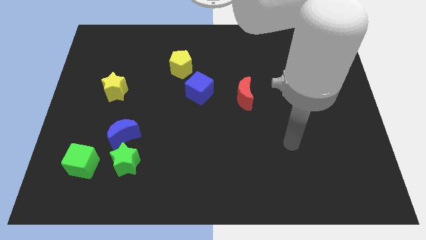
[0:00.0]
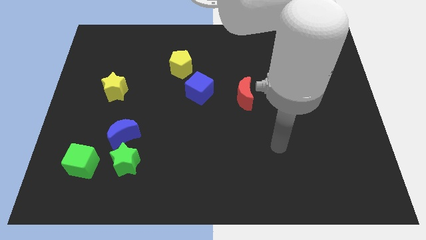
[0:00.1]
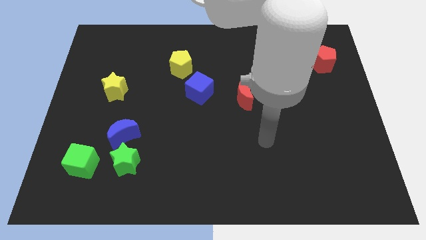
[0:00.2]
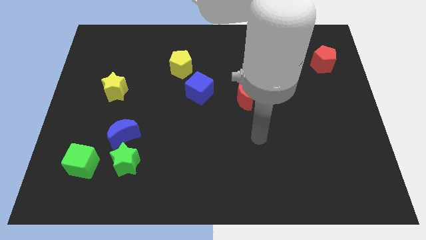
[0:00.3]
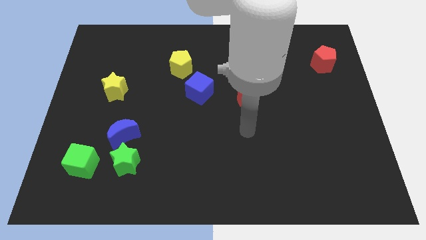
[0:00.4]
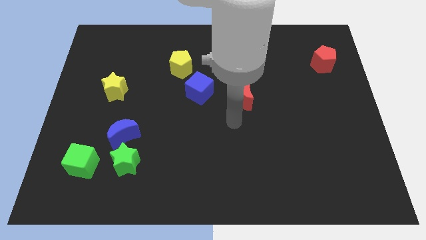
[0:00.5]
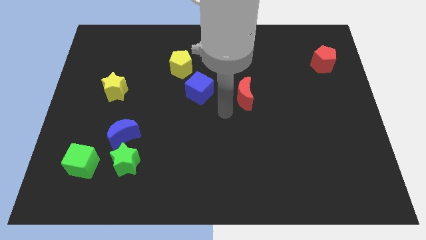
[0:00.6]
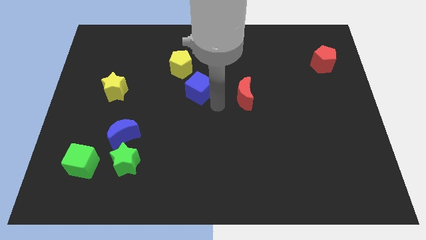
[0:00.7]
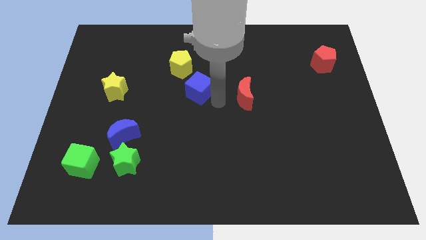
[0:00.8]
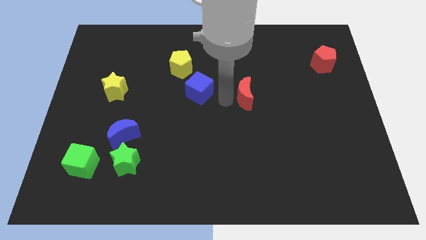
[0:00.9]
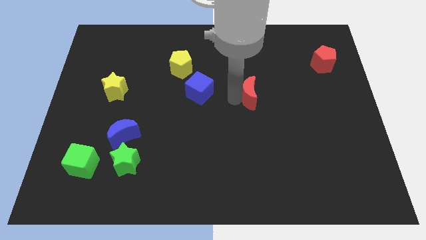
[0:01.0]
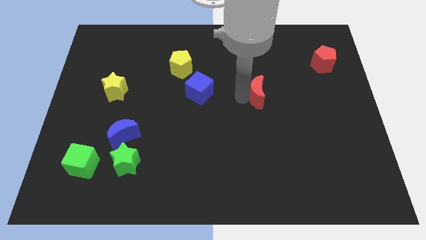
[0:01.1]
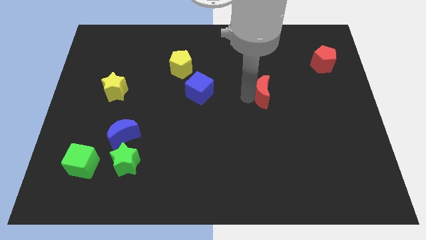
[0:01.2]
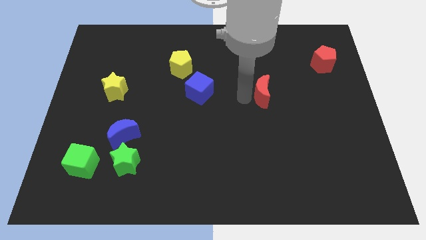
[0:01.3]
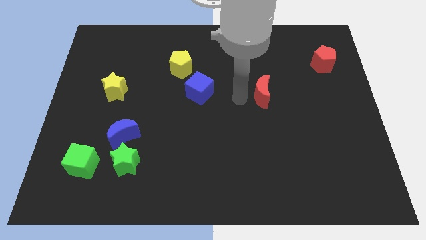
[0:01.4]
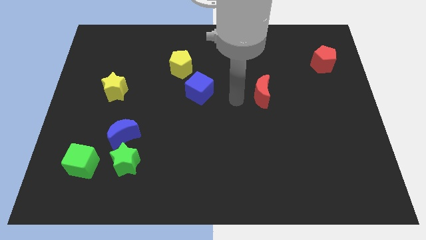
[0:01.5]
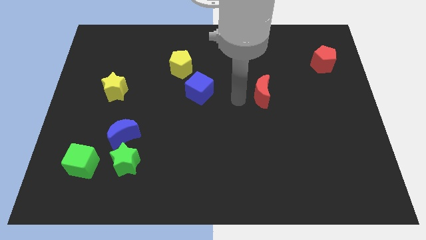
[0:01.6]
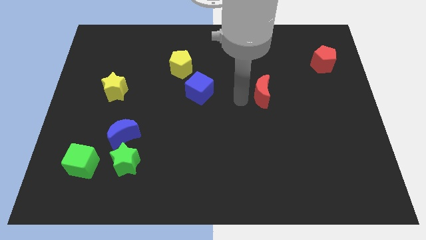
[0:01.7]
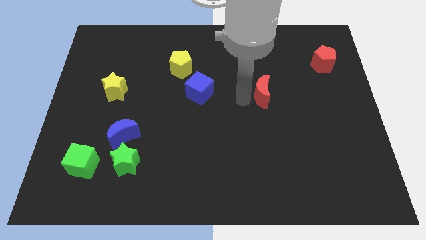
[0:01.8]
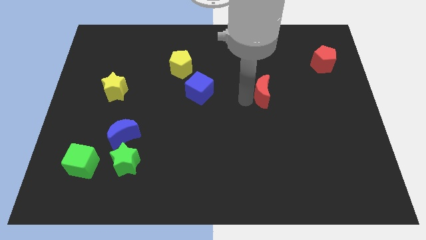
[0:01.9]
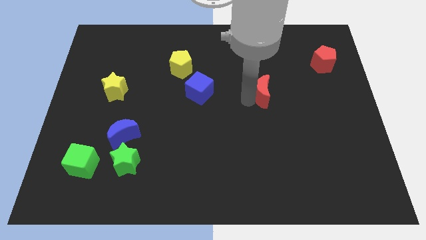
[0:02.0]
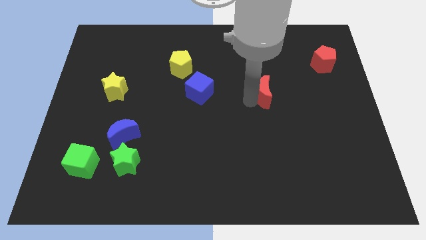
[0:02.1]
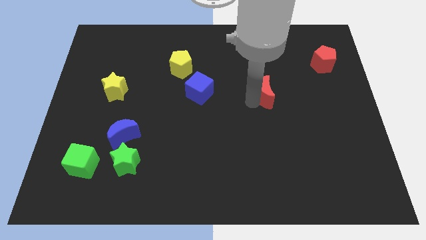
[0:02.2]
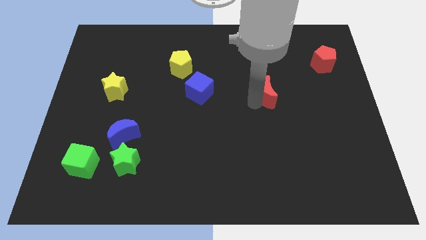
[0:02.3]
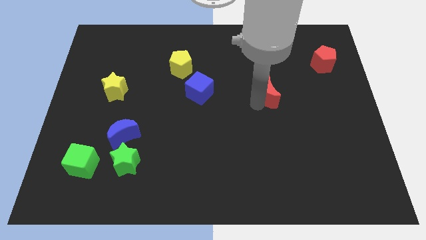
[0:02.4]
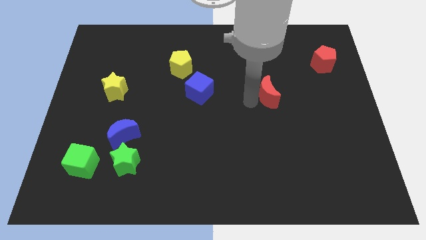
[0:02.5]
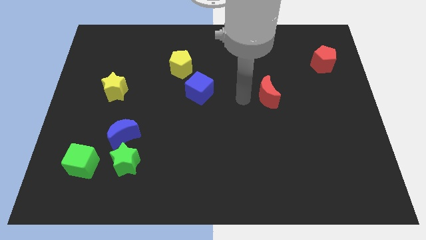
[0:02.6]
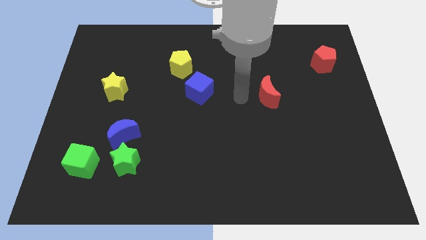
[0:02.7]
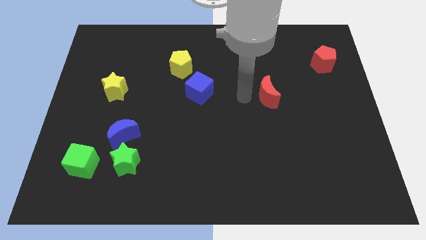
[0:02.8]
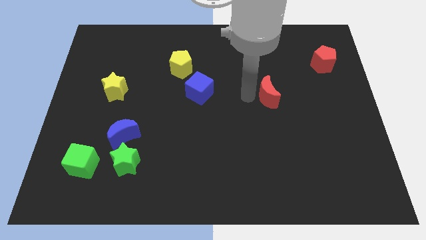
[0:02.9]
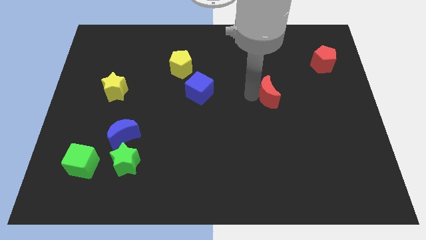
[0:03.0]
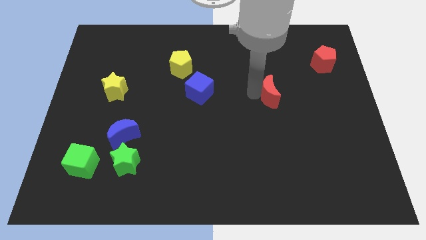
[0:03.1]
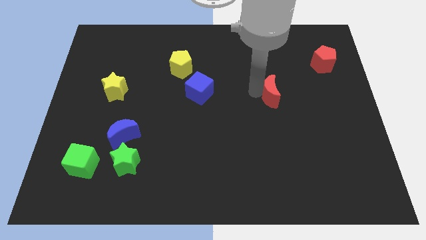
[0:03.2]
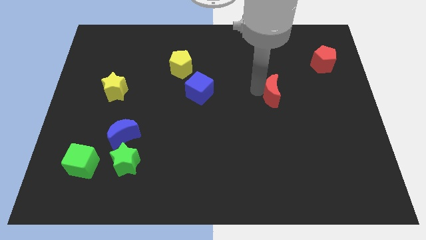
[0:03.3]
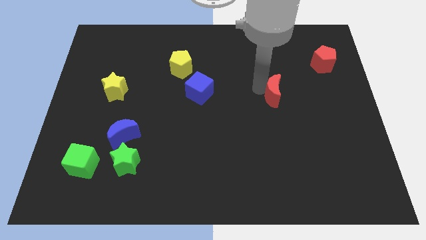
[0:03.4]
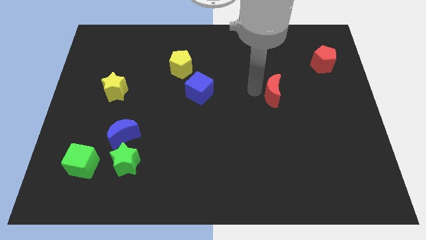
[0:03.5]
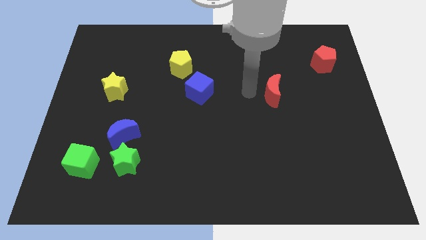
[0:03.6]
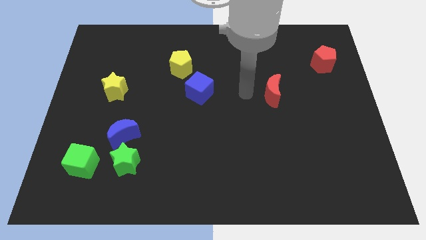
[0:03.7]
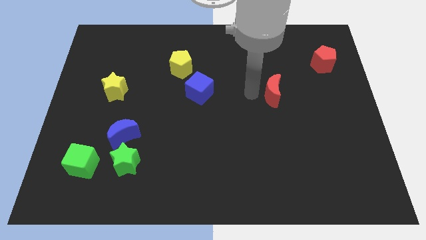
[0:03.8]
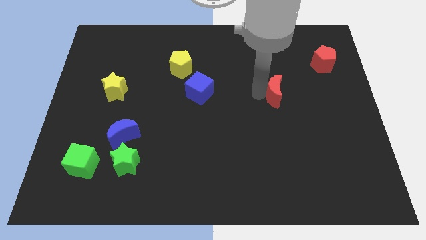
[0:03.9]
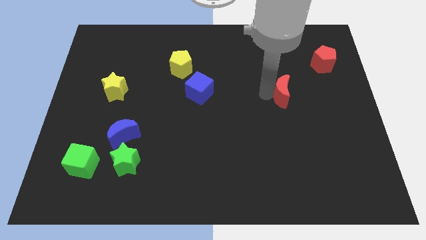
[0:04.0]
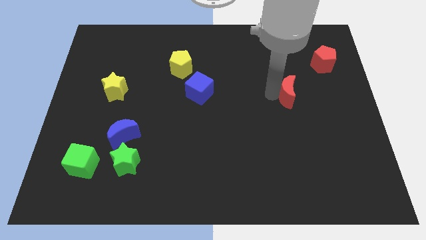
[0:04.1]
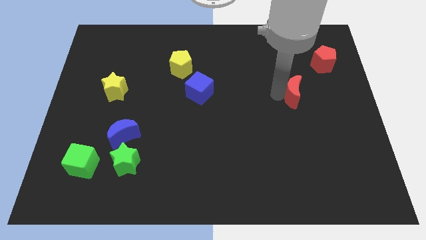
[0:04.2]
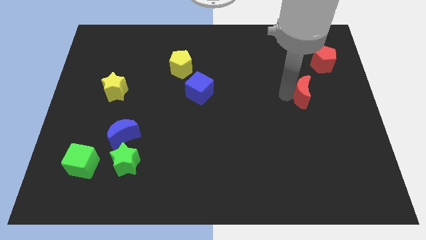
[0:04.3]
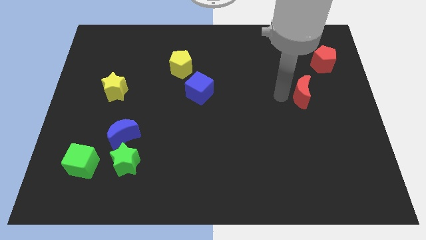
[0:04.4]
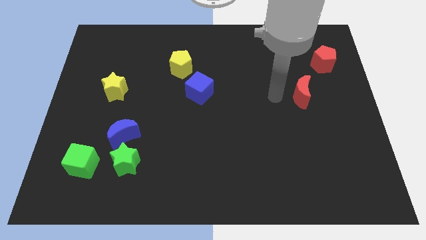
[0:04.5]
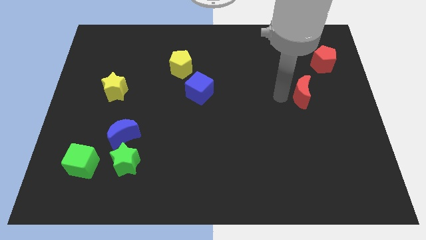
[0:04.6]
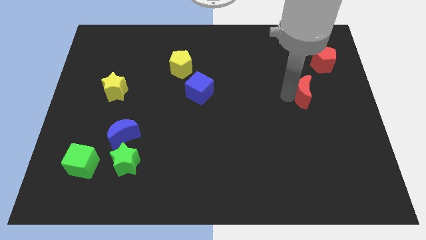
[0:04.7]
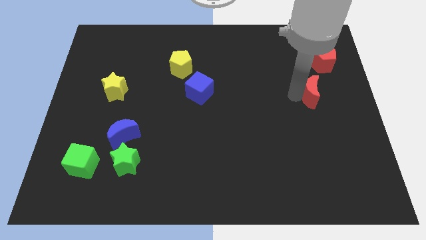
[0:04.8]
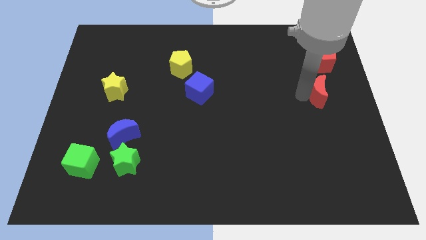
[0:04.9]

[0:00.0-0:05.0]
move the red moon below the red pentagon

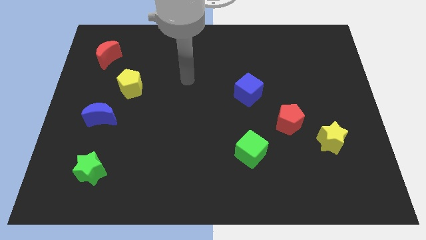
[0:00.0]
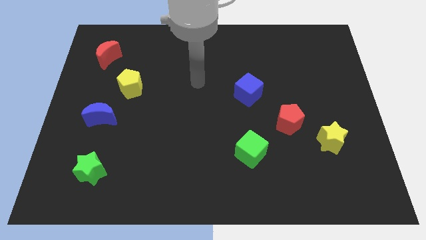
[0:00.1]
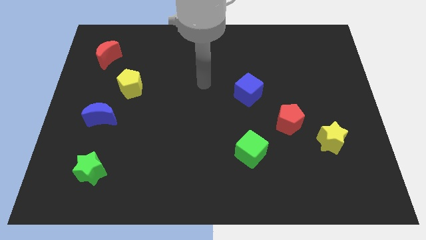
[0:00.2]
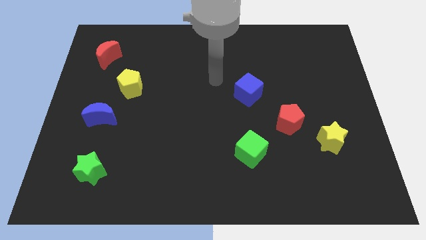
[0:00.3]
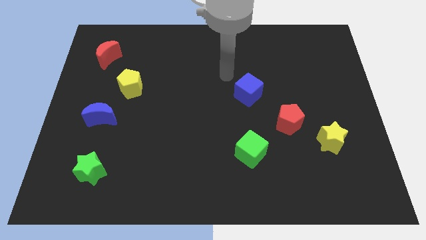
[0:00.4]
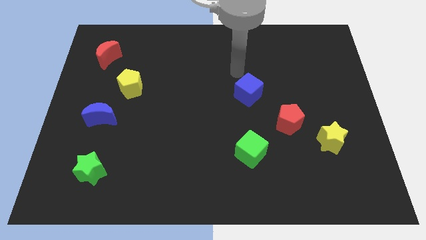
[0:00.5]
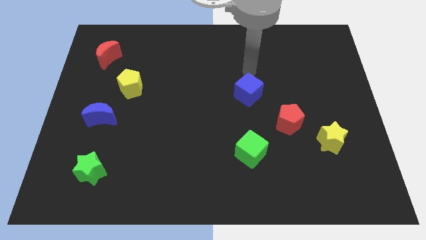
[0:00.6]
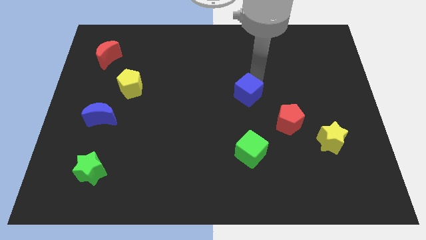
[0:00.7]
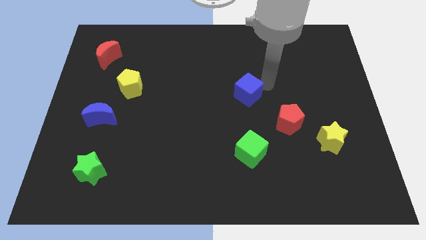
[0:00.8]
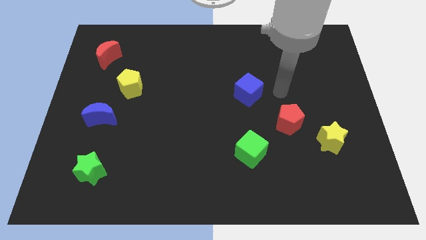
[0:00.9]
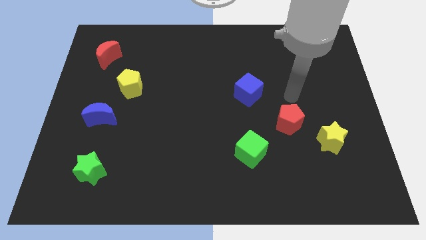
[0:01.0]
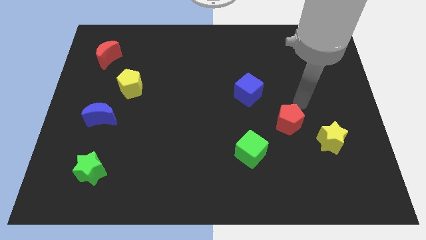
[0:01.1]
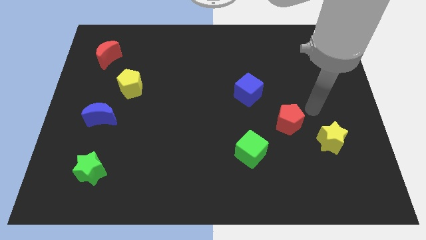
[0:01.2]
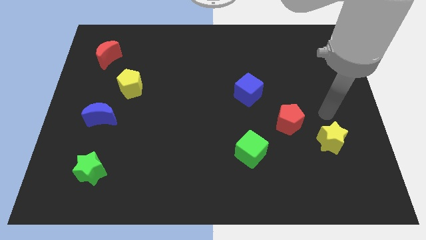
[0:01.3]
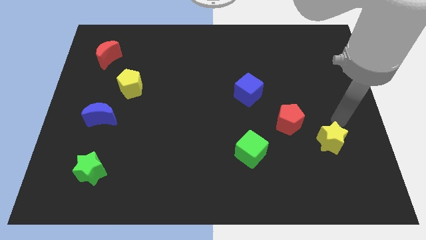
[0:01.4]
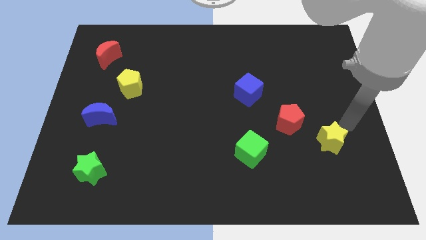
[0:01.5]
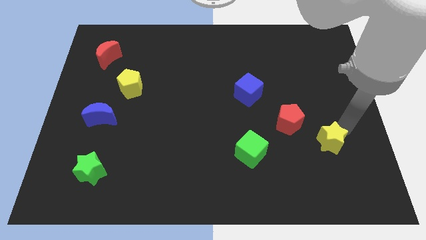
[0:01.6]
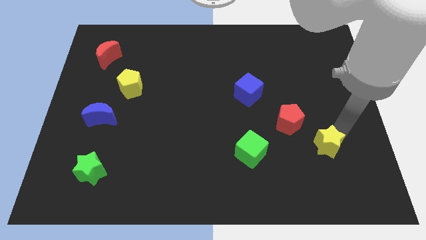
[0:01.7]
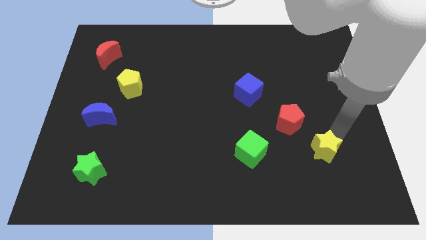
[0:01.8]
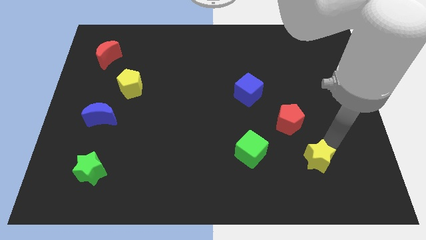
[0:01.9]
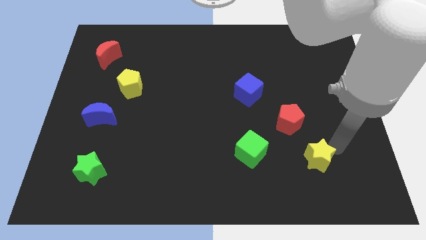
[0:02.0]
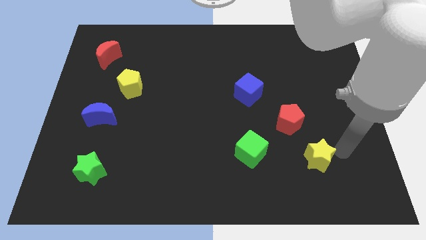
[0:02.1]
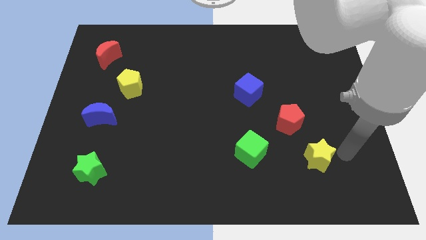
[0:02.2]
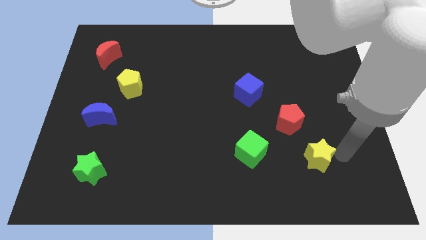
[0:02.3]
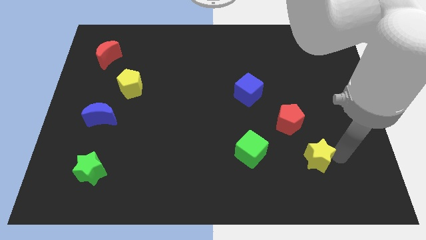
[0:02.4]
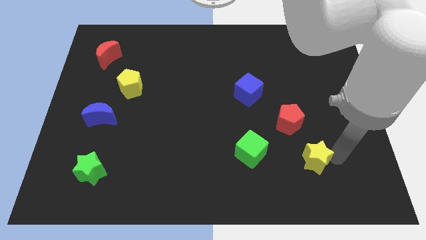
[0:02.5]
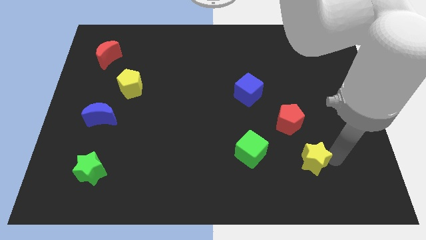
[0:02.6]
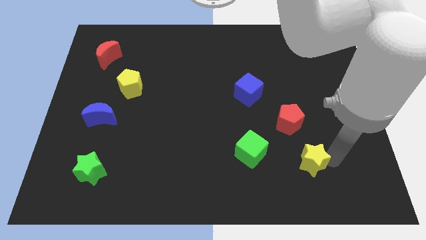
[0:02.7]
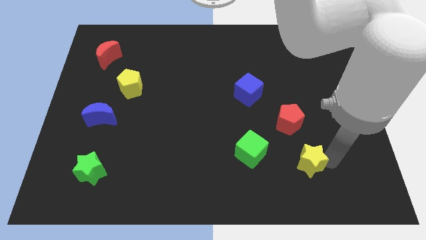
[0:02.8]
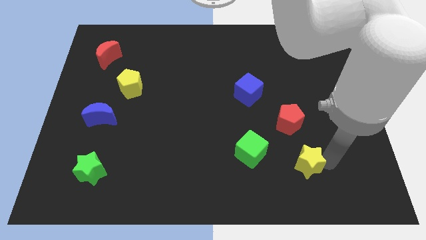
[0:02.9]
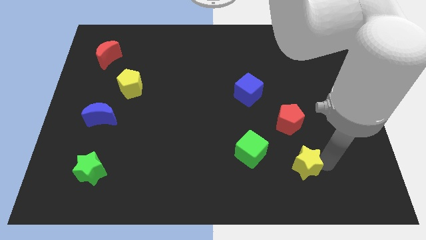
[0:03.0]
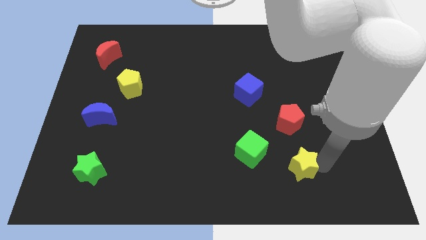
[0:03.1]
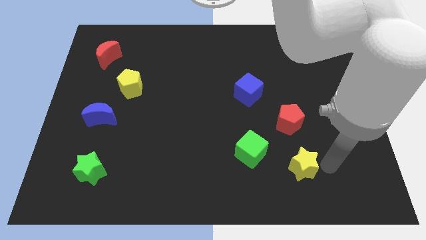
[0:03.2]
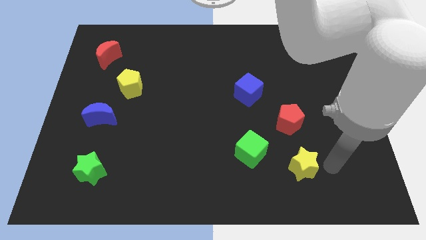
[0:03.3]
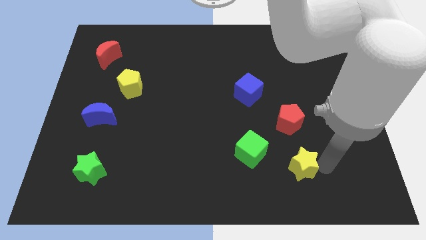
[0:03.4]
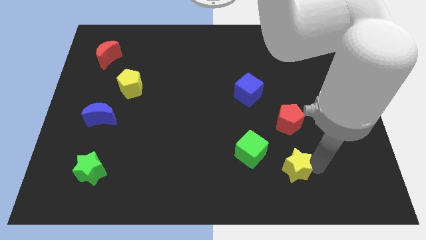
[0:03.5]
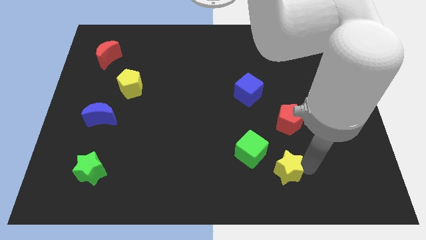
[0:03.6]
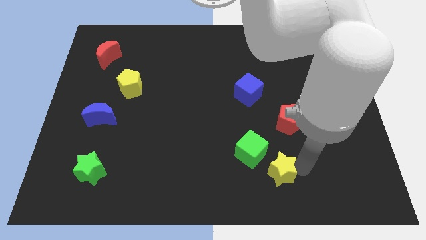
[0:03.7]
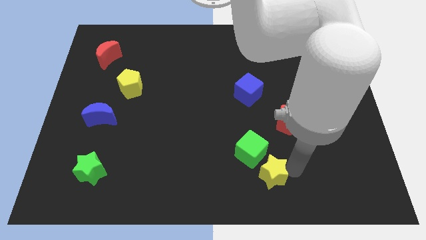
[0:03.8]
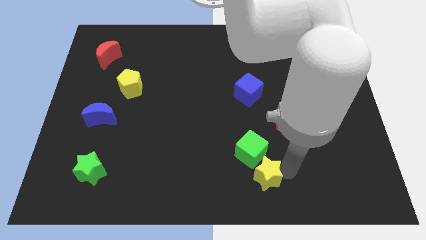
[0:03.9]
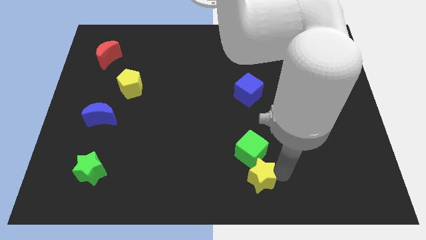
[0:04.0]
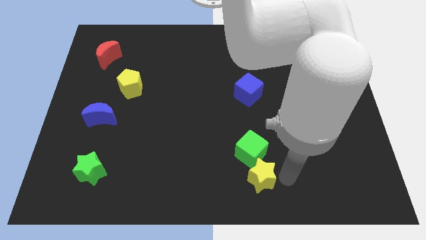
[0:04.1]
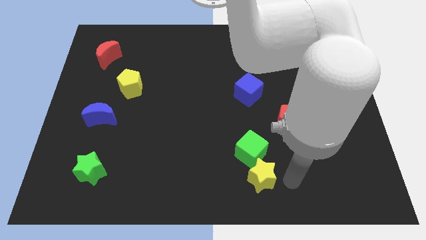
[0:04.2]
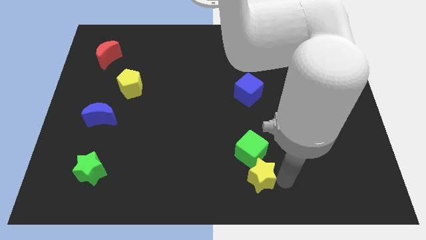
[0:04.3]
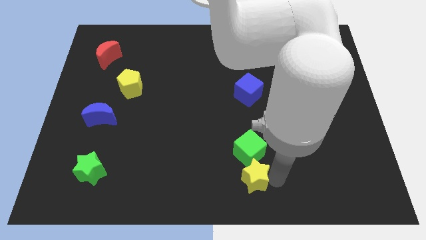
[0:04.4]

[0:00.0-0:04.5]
move the yellow star diagonally down and to the left of the green cube
